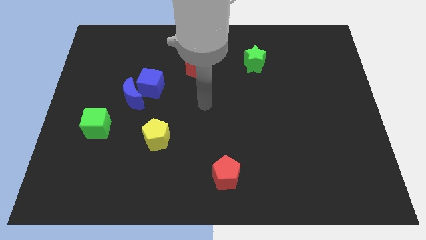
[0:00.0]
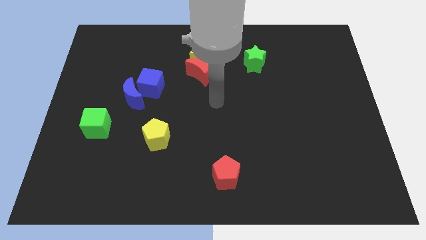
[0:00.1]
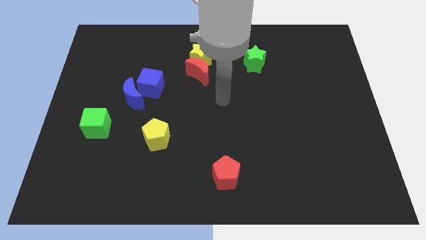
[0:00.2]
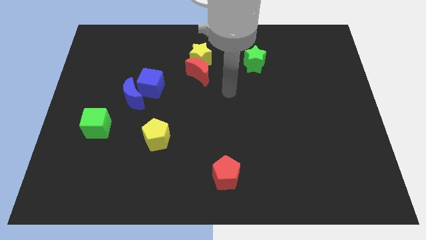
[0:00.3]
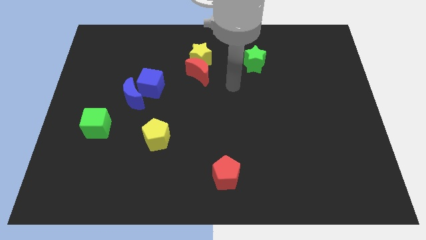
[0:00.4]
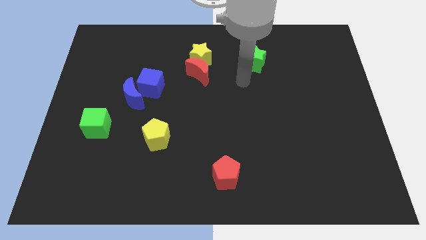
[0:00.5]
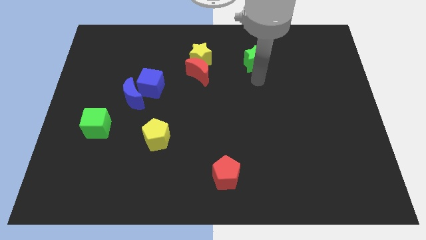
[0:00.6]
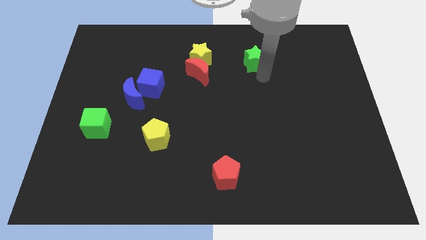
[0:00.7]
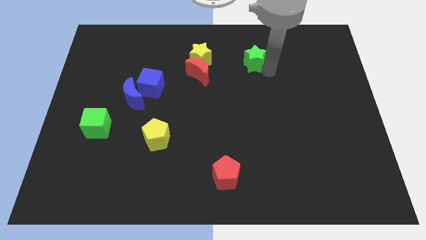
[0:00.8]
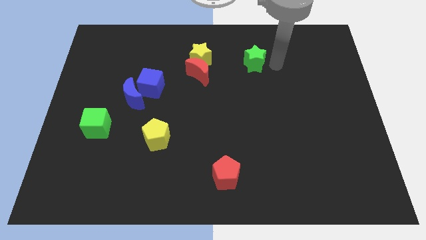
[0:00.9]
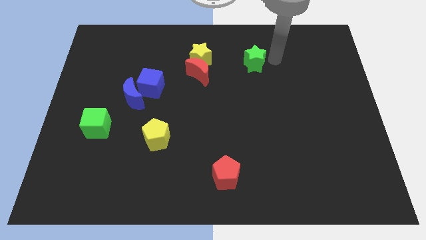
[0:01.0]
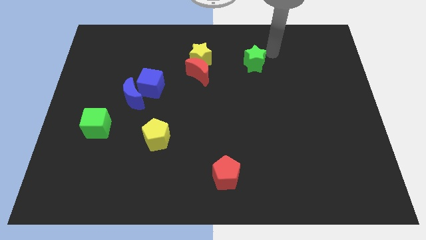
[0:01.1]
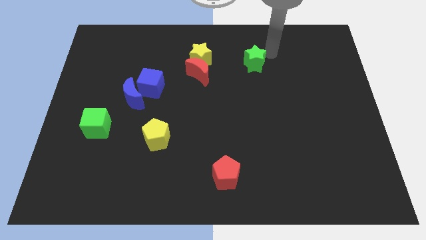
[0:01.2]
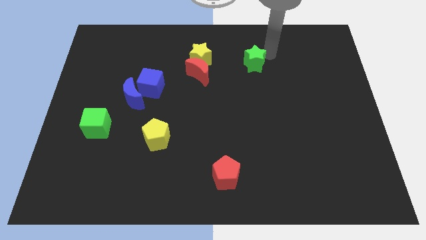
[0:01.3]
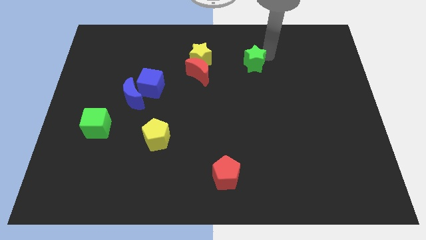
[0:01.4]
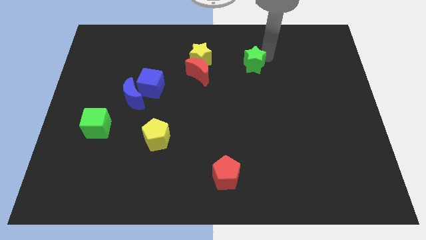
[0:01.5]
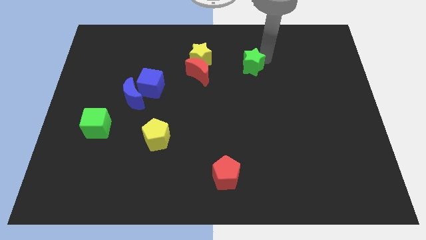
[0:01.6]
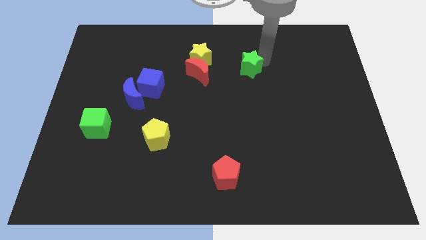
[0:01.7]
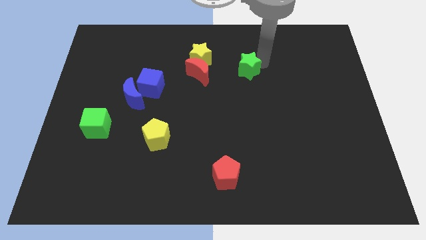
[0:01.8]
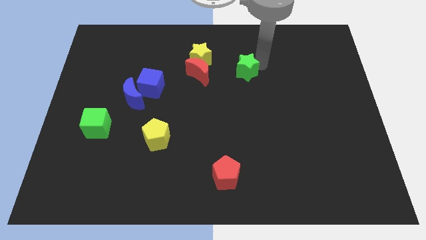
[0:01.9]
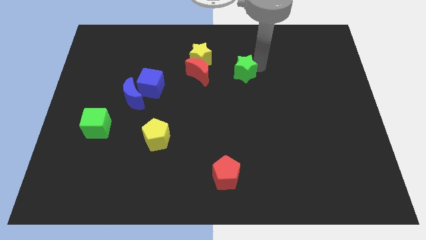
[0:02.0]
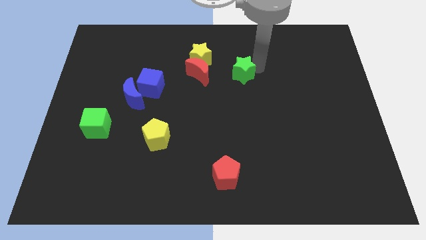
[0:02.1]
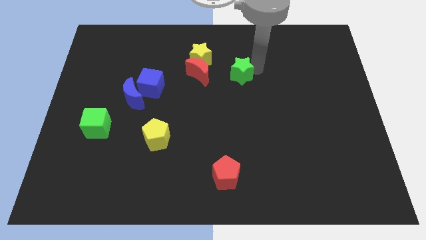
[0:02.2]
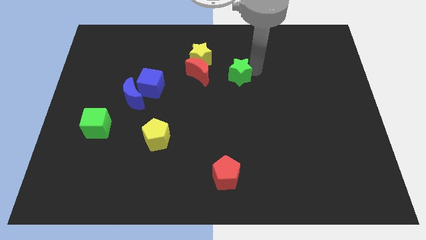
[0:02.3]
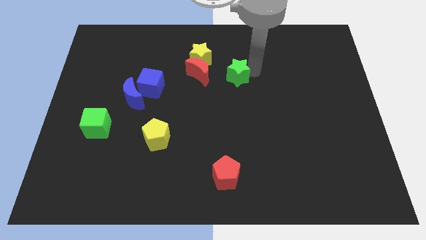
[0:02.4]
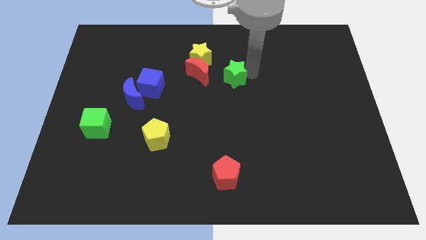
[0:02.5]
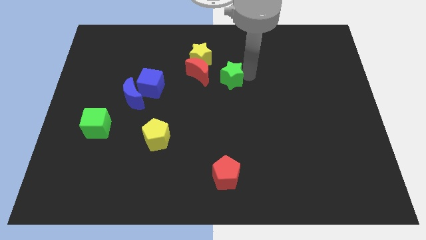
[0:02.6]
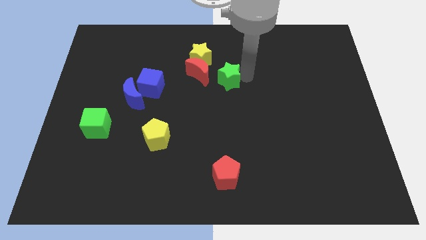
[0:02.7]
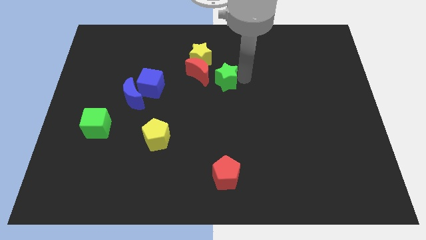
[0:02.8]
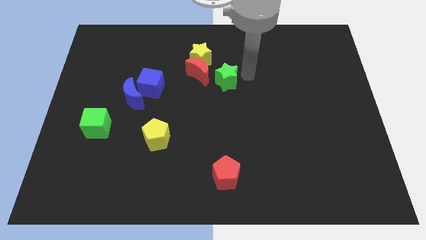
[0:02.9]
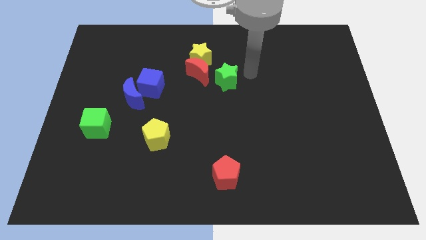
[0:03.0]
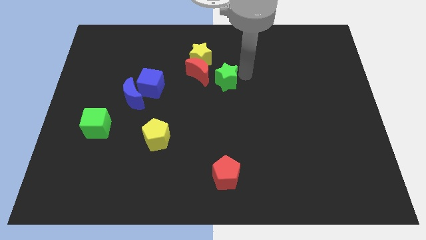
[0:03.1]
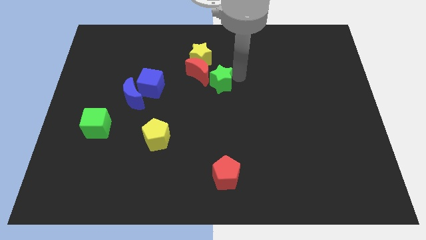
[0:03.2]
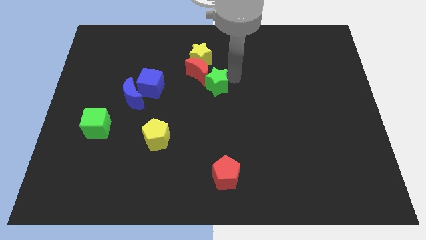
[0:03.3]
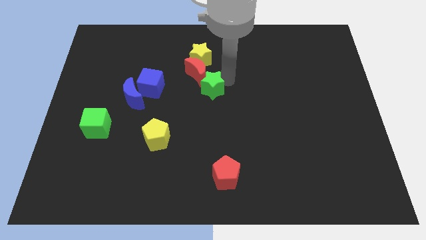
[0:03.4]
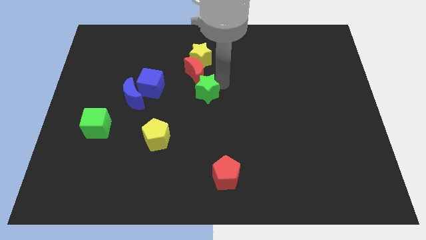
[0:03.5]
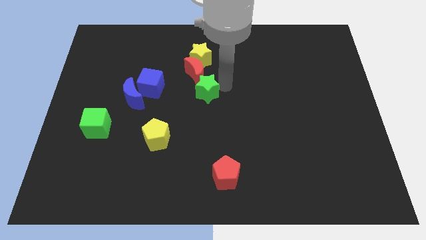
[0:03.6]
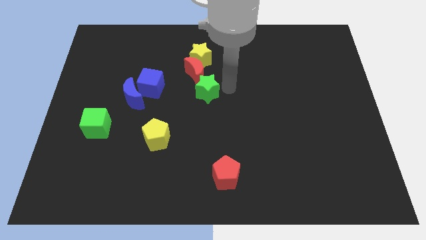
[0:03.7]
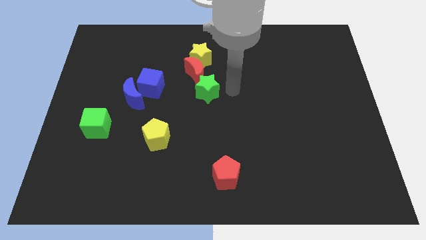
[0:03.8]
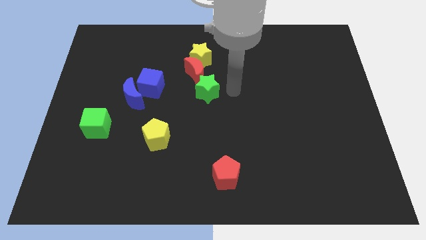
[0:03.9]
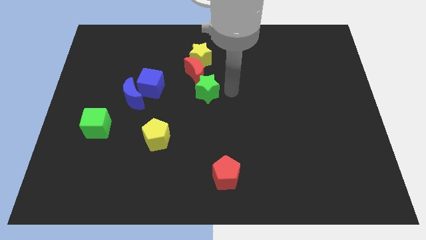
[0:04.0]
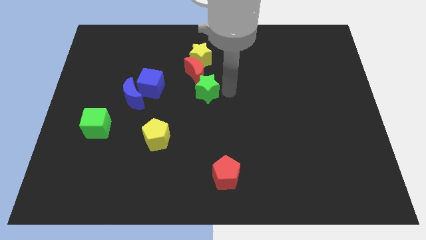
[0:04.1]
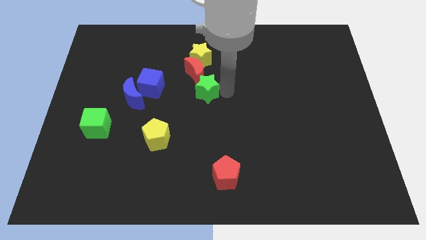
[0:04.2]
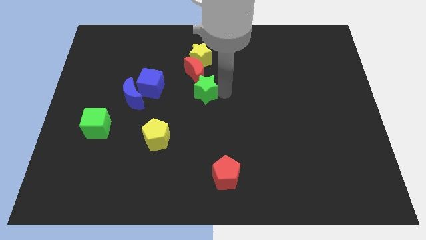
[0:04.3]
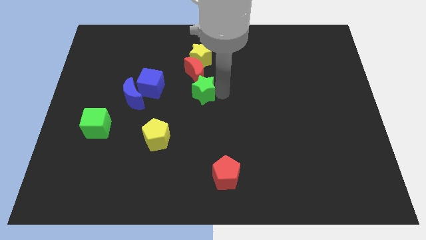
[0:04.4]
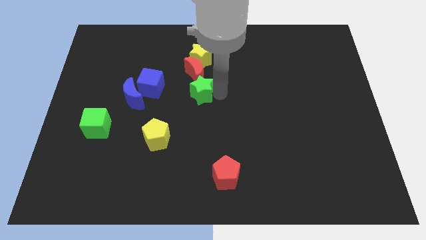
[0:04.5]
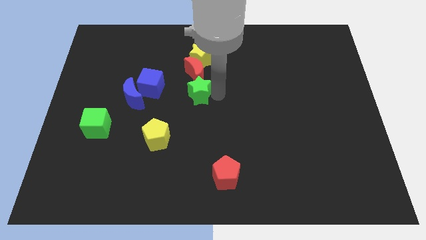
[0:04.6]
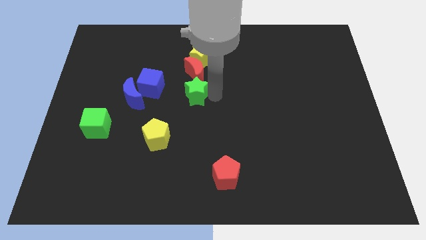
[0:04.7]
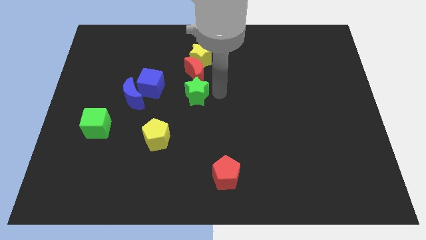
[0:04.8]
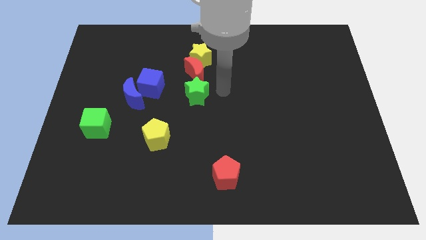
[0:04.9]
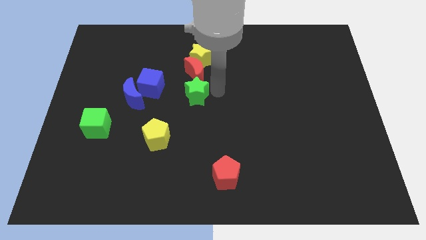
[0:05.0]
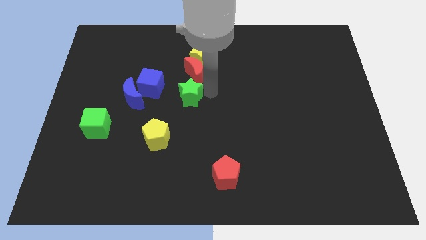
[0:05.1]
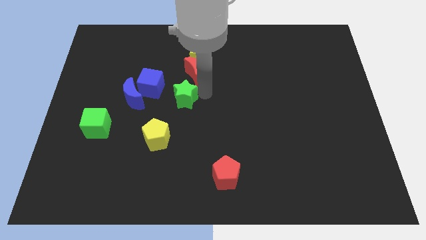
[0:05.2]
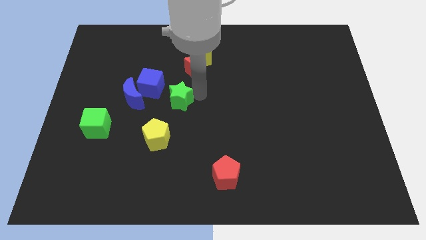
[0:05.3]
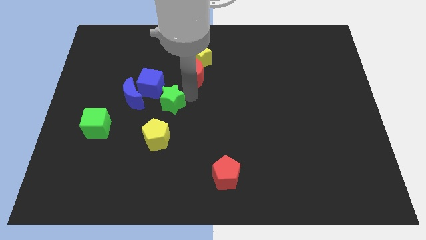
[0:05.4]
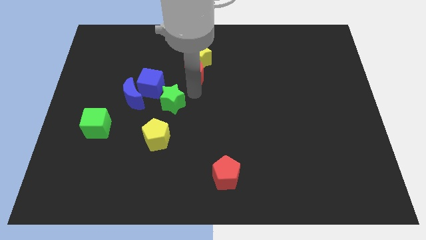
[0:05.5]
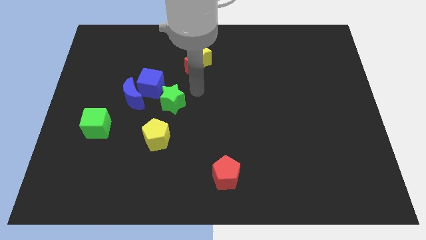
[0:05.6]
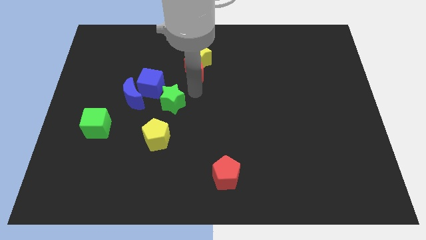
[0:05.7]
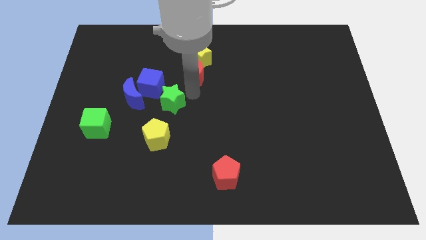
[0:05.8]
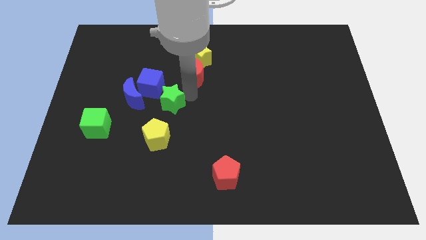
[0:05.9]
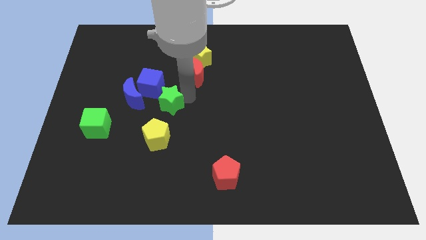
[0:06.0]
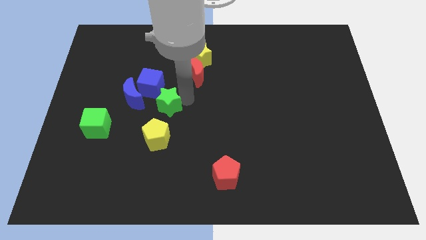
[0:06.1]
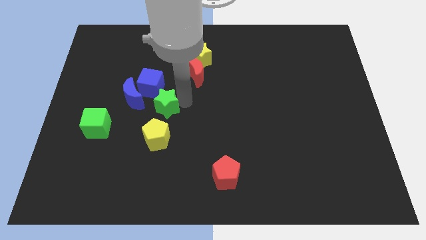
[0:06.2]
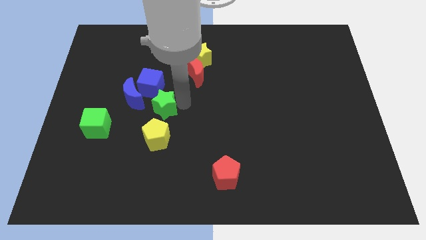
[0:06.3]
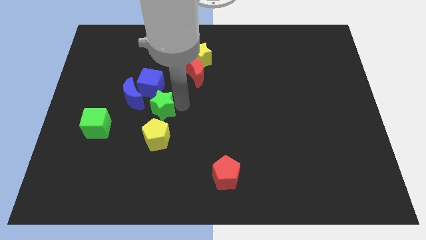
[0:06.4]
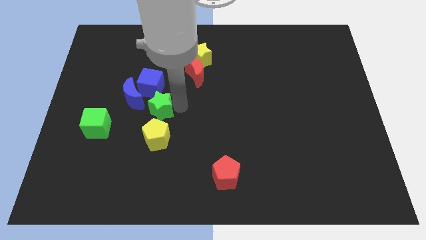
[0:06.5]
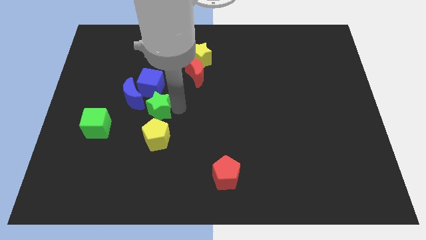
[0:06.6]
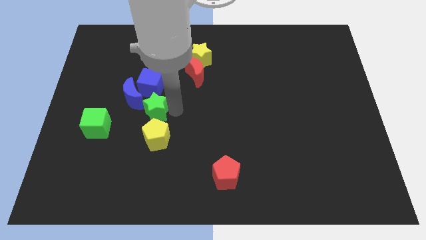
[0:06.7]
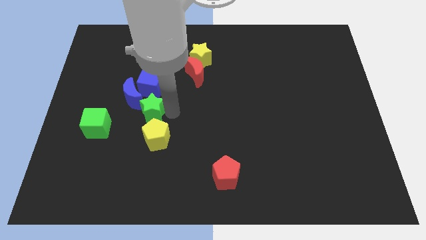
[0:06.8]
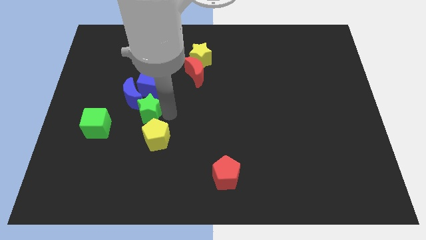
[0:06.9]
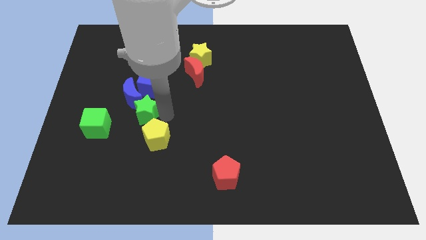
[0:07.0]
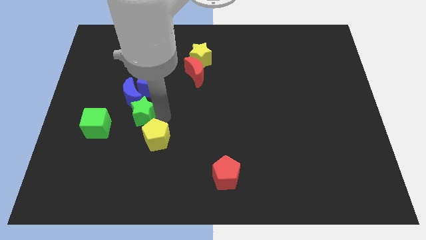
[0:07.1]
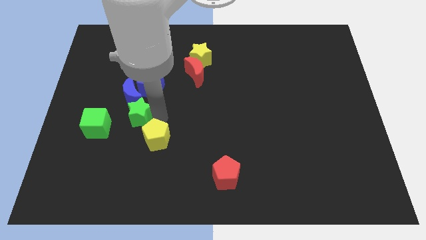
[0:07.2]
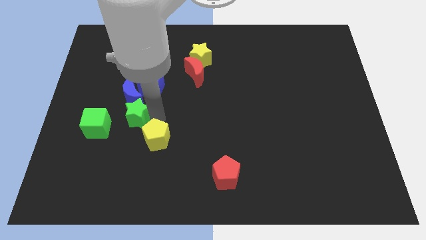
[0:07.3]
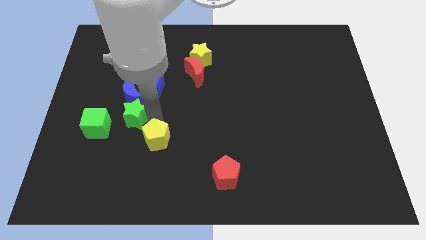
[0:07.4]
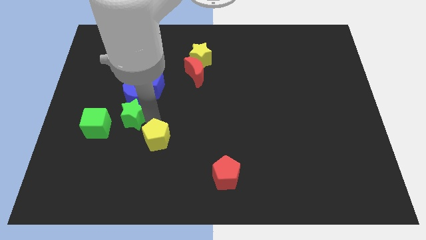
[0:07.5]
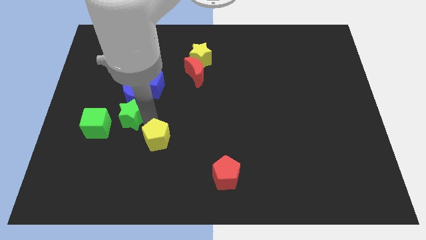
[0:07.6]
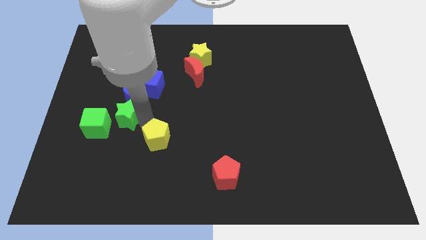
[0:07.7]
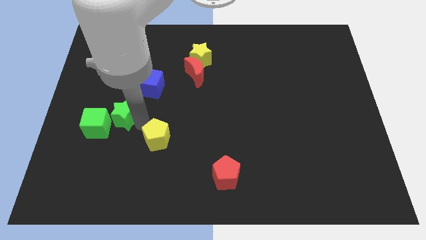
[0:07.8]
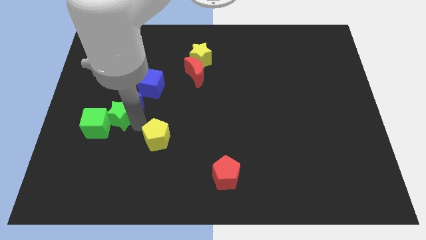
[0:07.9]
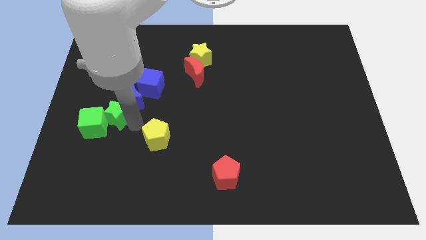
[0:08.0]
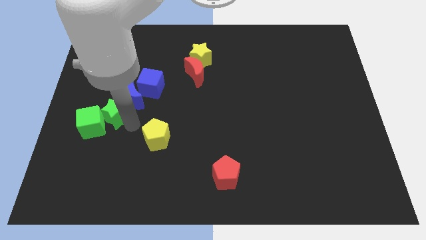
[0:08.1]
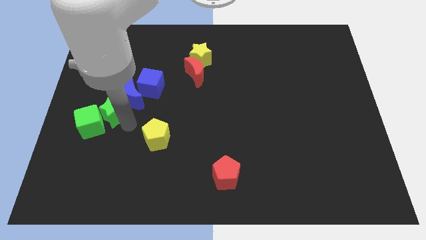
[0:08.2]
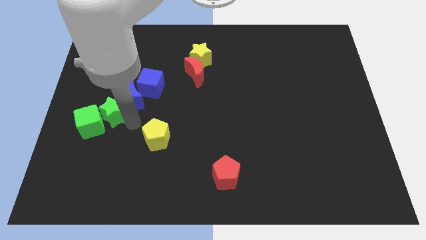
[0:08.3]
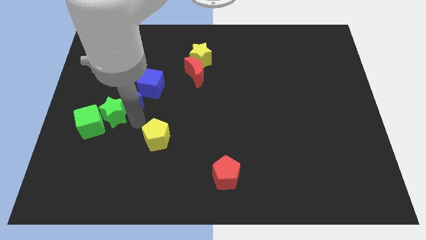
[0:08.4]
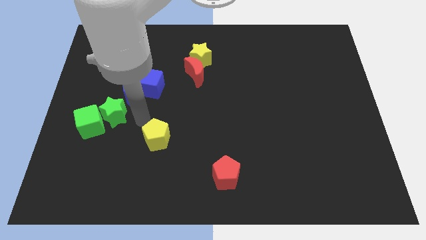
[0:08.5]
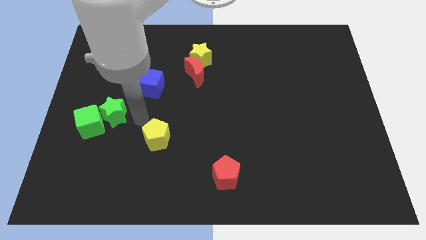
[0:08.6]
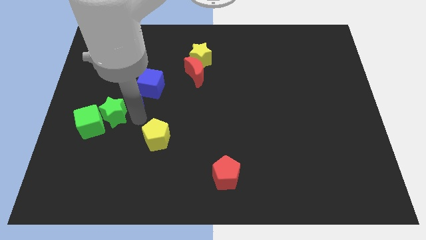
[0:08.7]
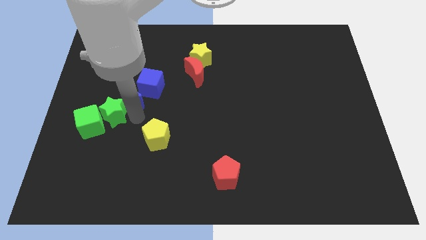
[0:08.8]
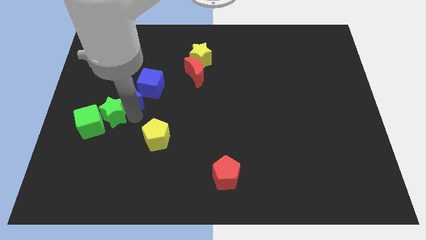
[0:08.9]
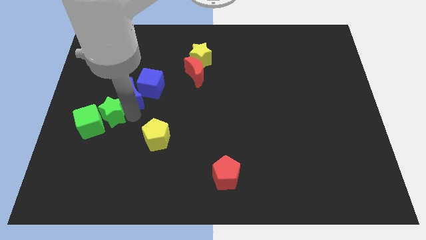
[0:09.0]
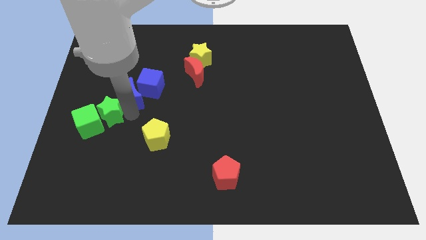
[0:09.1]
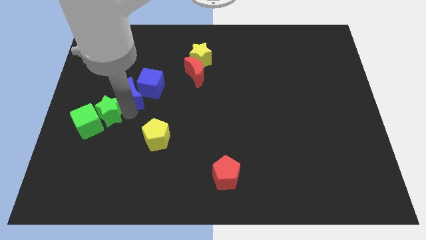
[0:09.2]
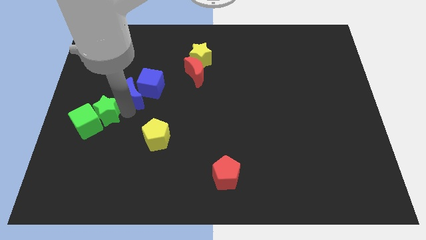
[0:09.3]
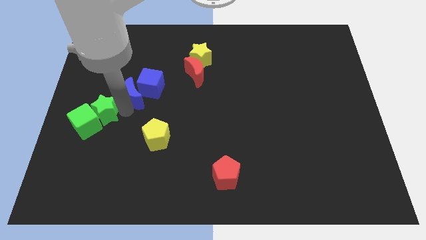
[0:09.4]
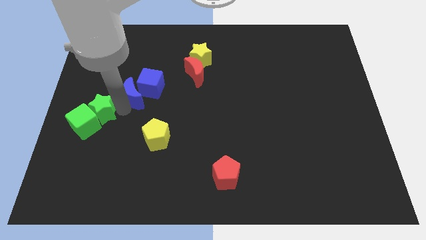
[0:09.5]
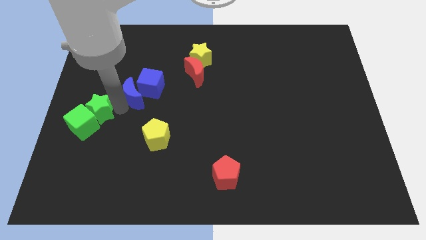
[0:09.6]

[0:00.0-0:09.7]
put the green star to the left side
